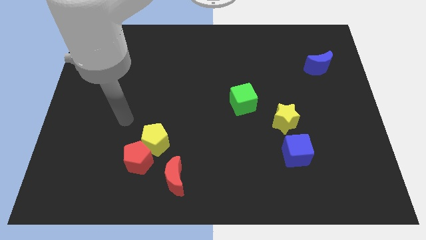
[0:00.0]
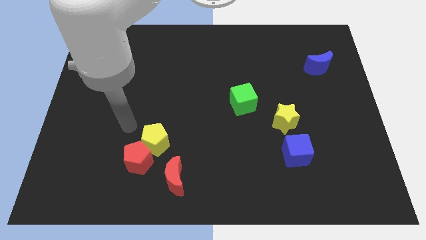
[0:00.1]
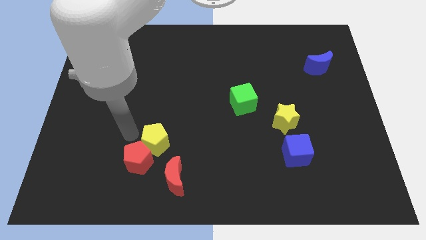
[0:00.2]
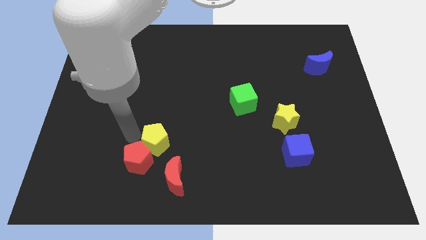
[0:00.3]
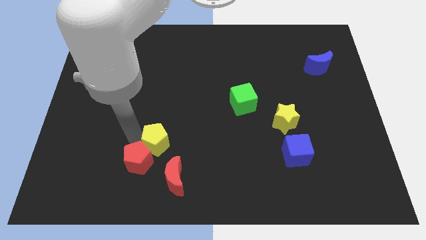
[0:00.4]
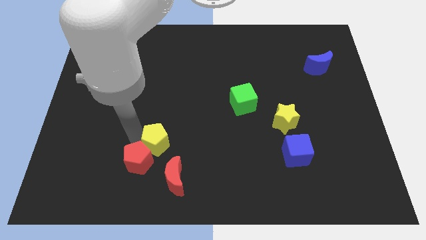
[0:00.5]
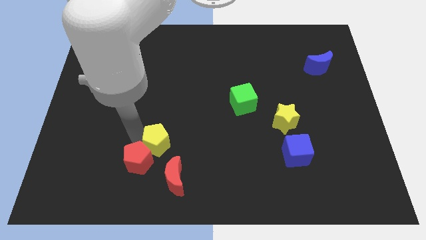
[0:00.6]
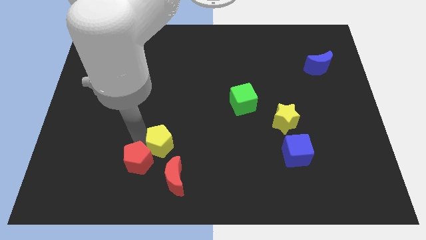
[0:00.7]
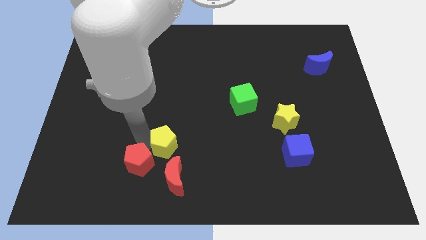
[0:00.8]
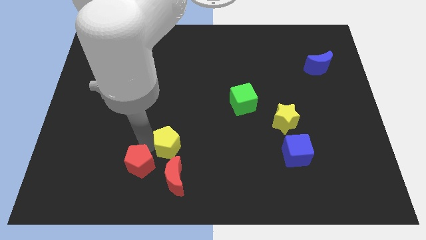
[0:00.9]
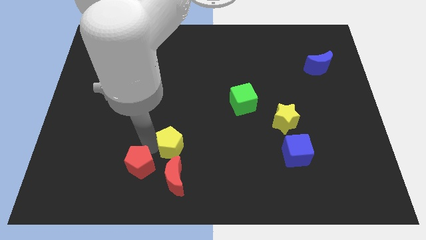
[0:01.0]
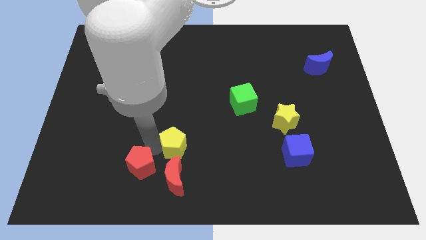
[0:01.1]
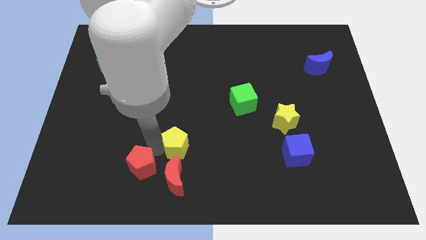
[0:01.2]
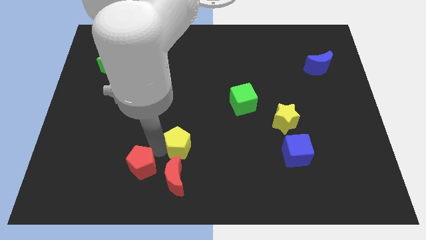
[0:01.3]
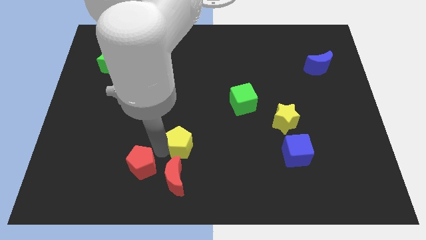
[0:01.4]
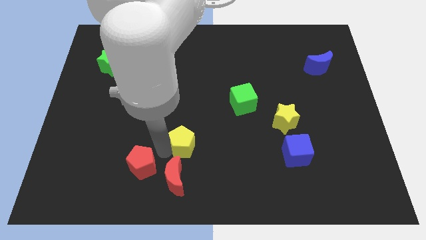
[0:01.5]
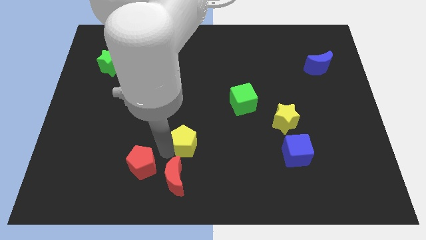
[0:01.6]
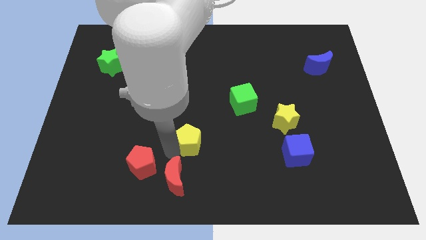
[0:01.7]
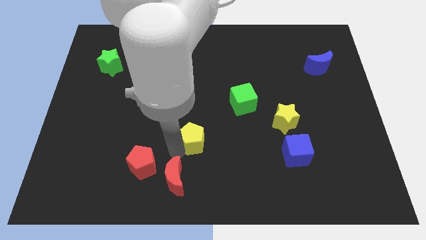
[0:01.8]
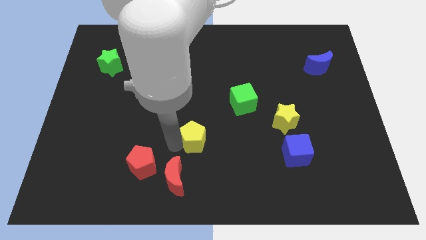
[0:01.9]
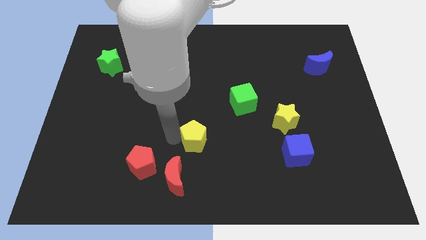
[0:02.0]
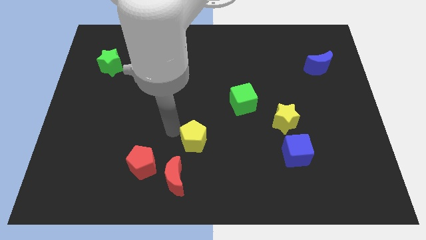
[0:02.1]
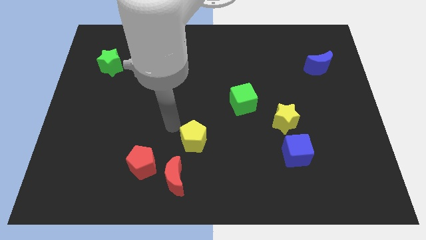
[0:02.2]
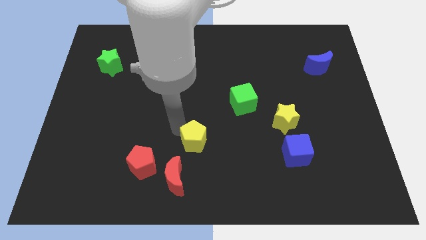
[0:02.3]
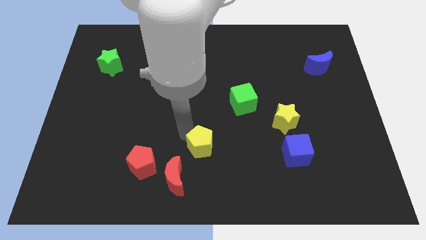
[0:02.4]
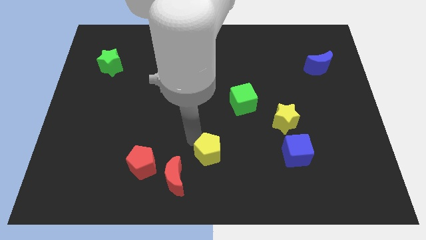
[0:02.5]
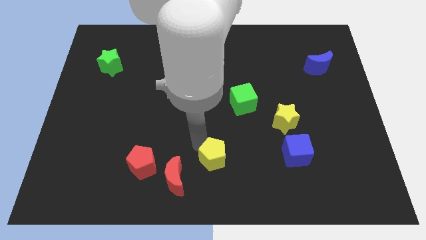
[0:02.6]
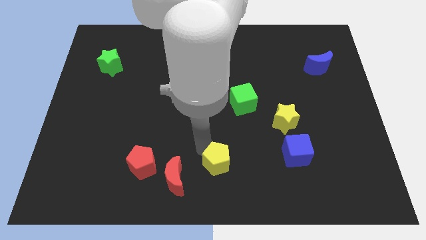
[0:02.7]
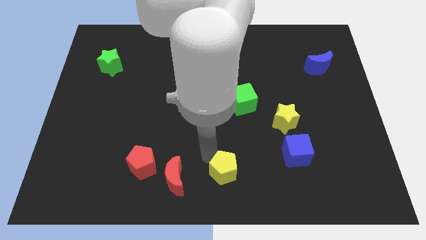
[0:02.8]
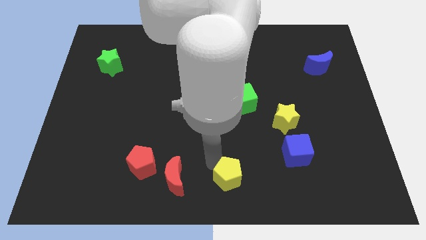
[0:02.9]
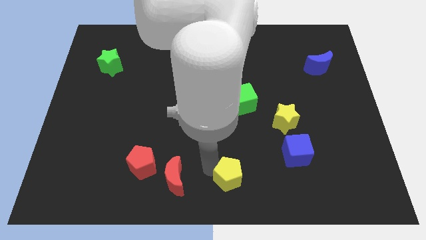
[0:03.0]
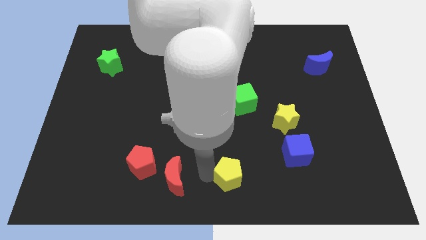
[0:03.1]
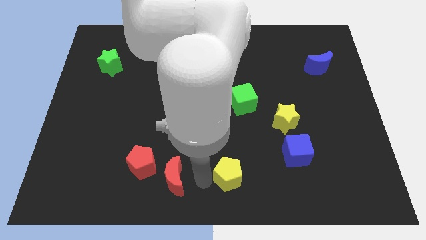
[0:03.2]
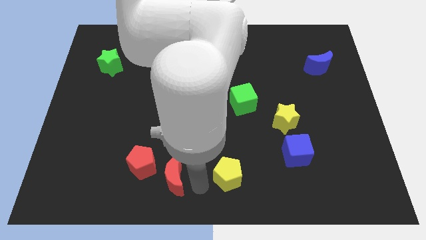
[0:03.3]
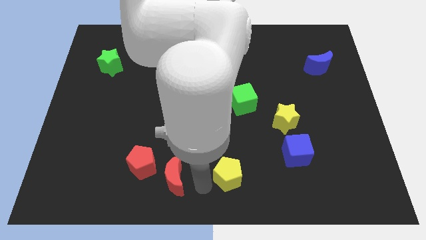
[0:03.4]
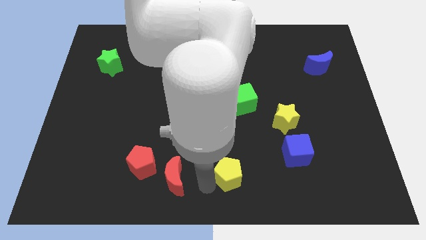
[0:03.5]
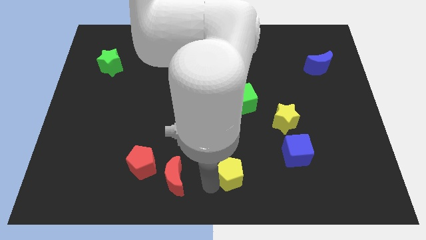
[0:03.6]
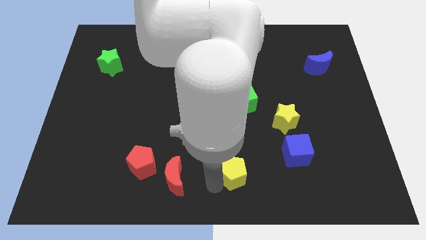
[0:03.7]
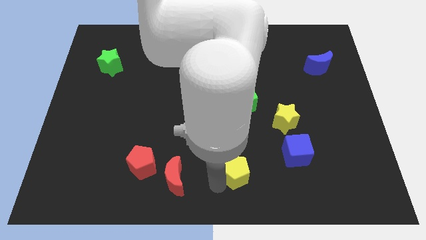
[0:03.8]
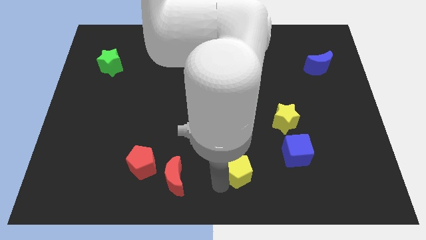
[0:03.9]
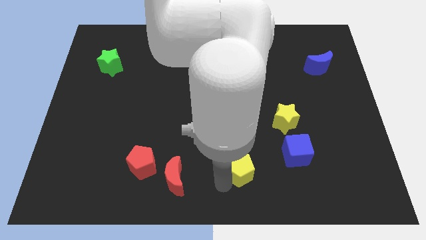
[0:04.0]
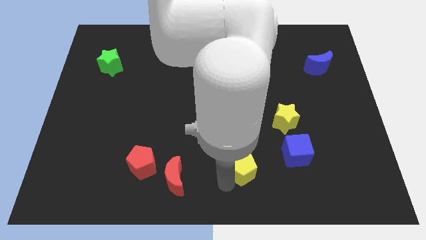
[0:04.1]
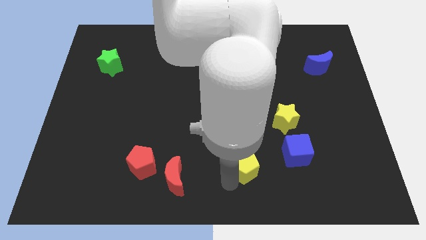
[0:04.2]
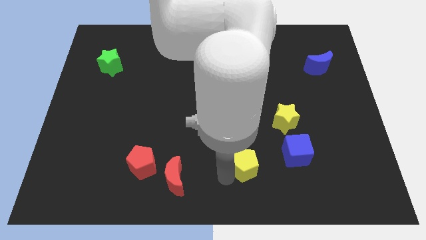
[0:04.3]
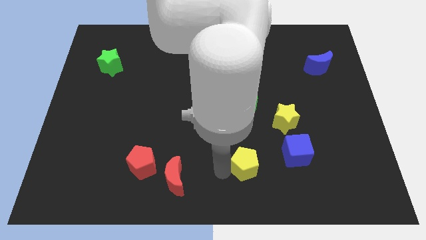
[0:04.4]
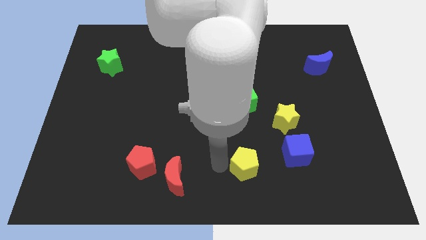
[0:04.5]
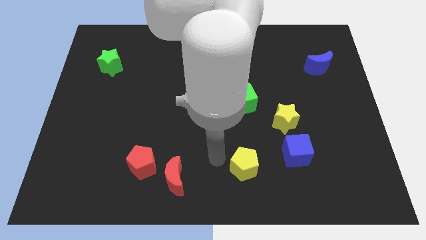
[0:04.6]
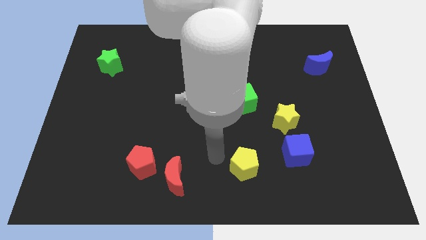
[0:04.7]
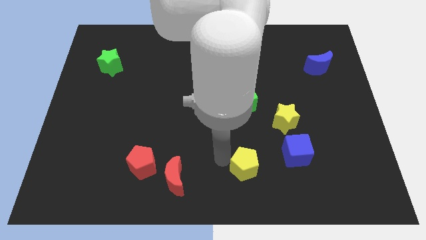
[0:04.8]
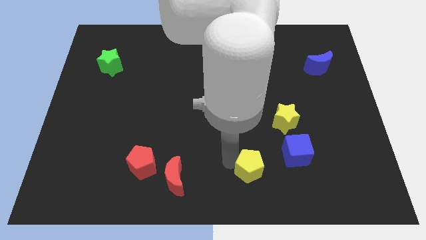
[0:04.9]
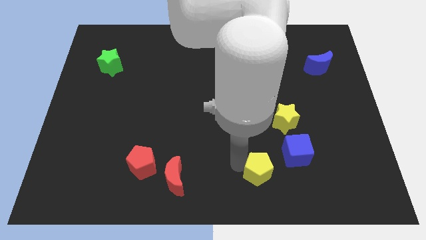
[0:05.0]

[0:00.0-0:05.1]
move the yellow pentagon to the bottom left side of the blue cube

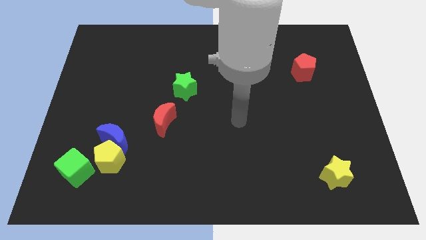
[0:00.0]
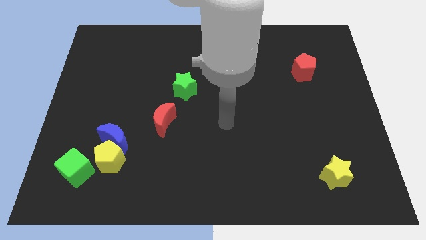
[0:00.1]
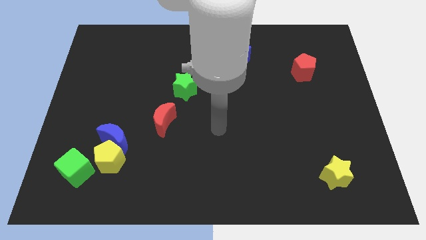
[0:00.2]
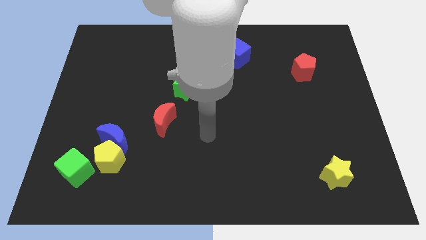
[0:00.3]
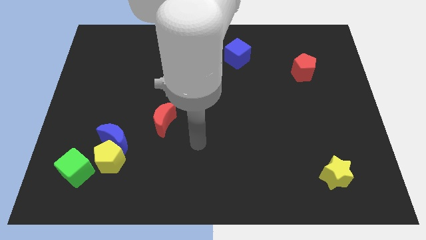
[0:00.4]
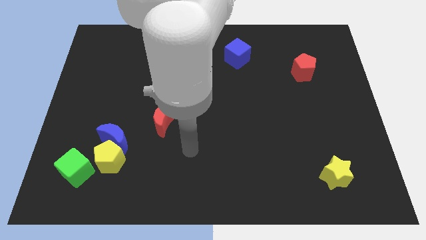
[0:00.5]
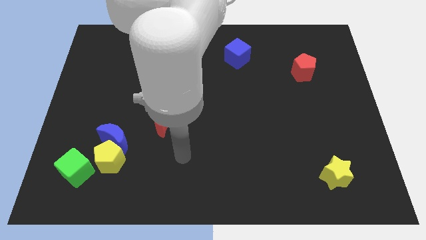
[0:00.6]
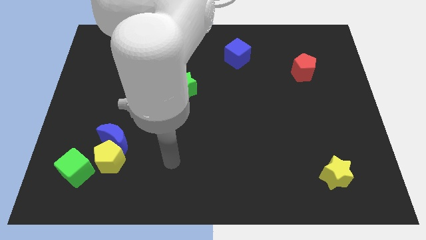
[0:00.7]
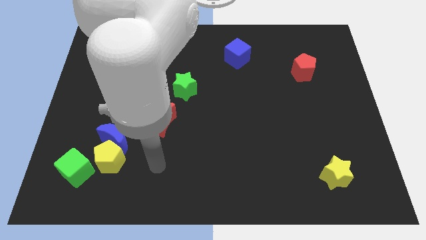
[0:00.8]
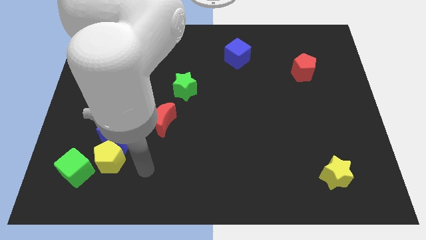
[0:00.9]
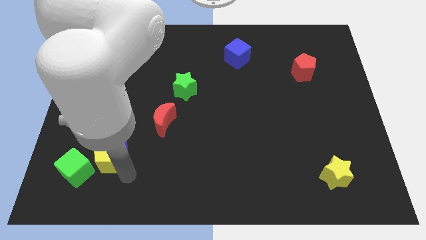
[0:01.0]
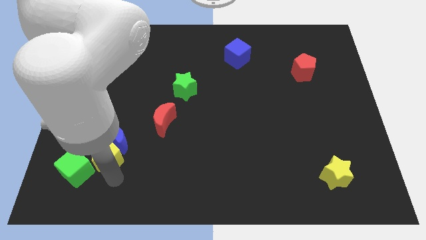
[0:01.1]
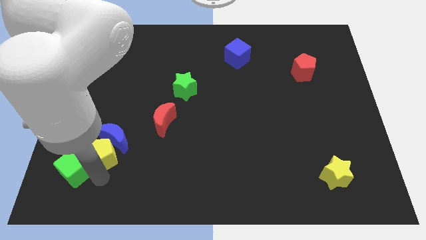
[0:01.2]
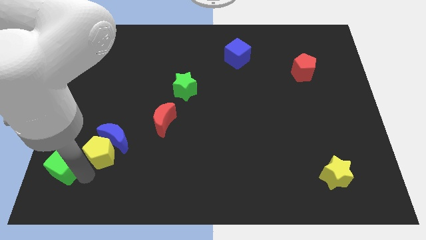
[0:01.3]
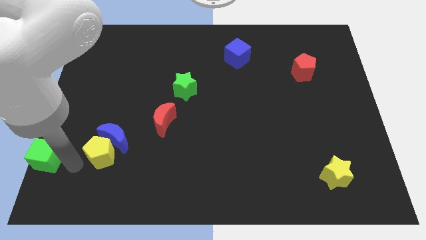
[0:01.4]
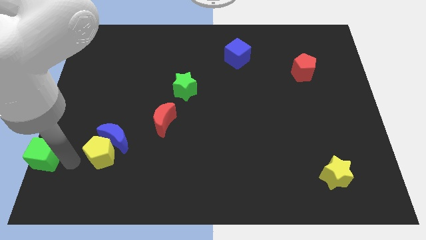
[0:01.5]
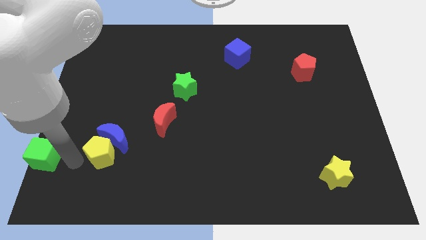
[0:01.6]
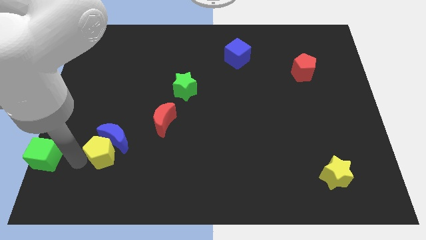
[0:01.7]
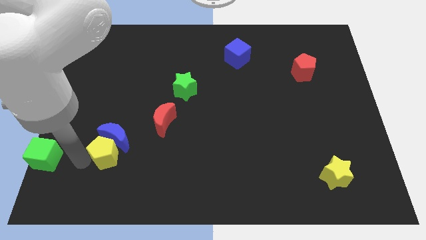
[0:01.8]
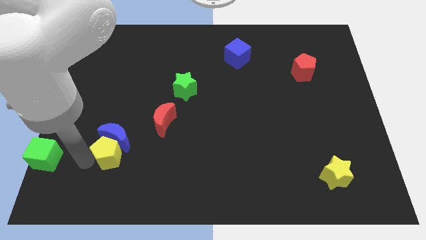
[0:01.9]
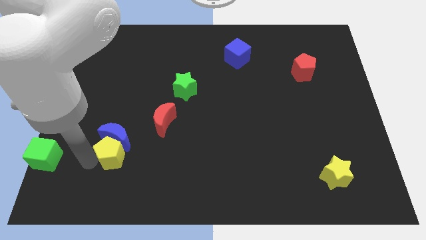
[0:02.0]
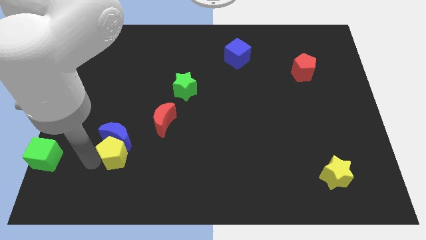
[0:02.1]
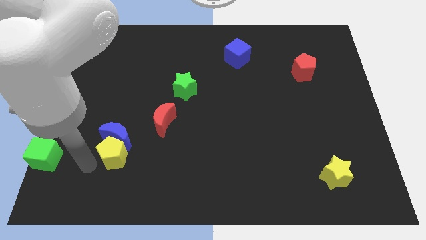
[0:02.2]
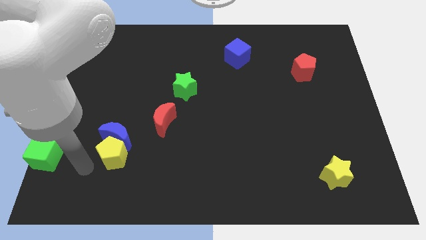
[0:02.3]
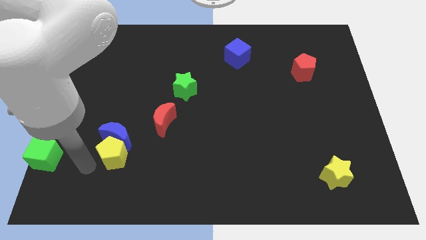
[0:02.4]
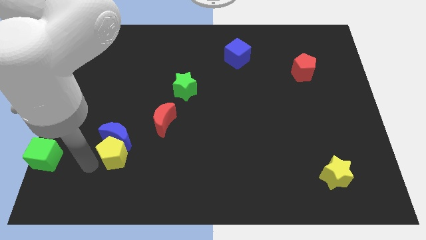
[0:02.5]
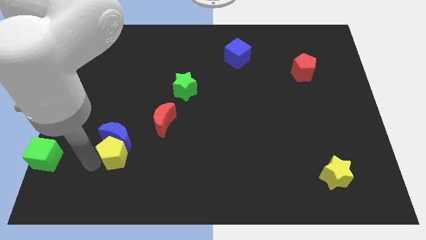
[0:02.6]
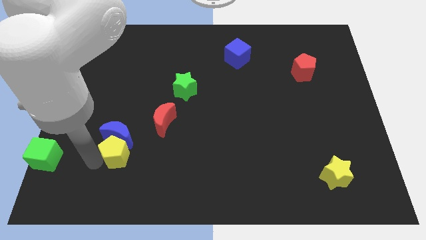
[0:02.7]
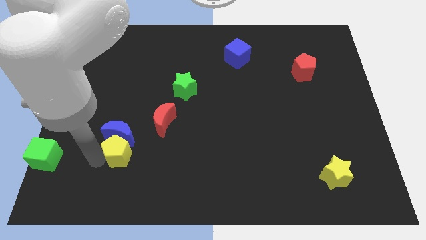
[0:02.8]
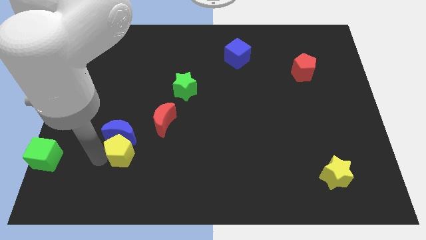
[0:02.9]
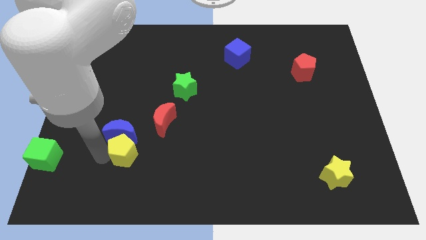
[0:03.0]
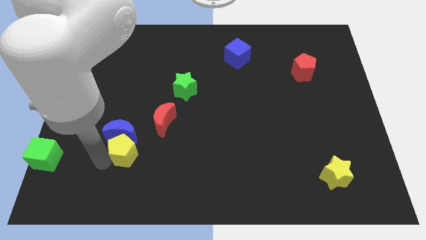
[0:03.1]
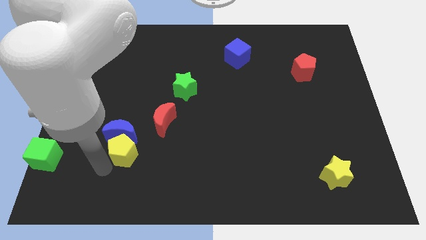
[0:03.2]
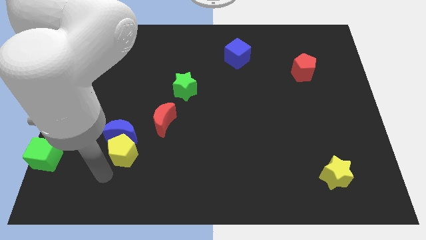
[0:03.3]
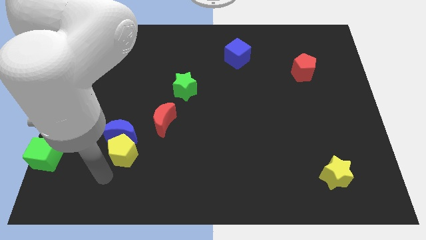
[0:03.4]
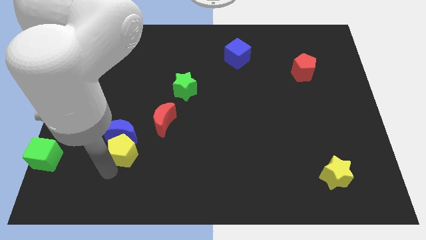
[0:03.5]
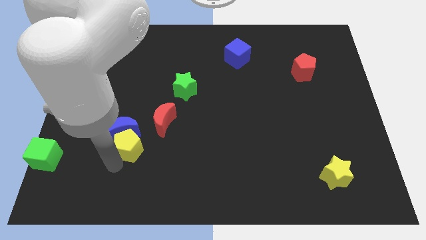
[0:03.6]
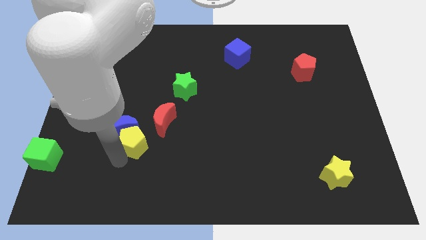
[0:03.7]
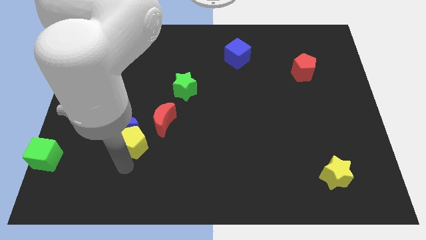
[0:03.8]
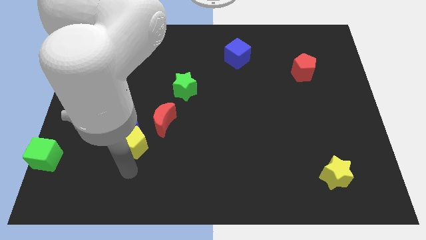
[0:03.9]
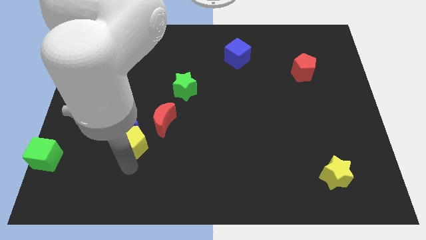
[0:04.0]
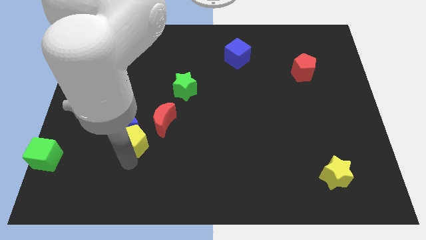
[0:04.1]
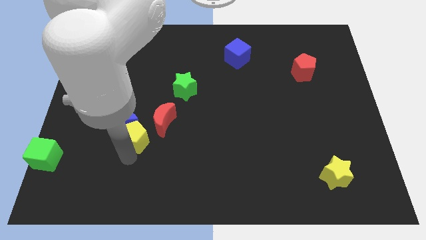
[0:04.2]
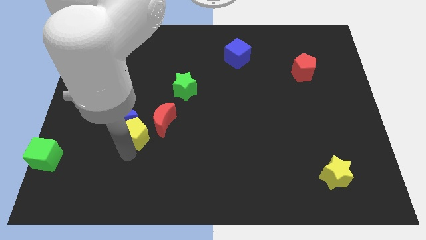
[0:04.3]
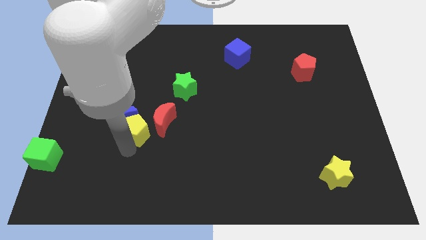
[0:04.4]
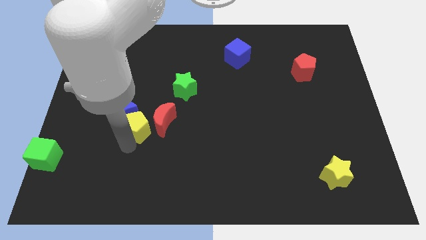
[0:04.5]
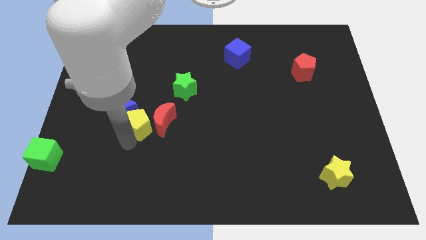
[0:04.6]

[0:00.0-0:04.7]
slide the yellow pentagon to the top left of the red moon
